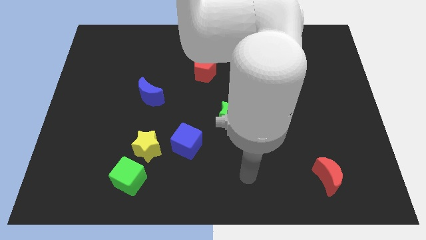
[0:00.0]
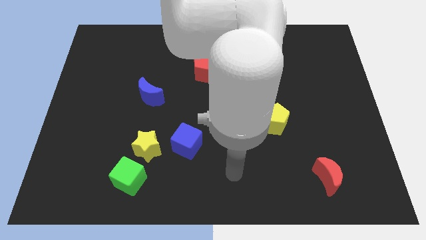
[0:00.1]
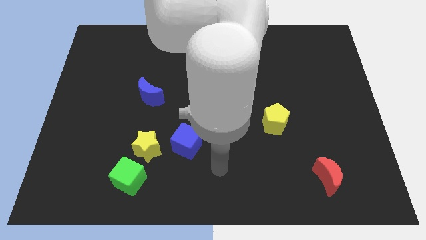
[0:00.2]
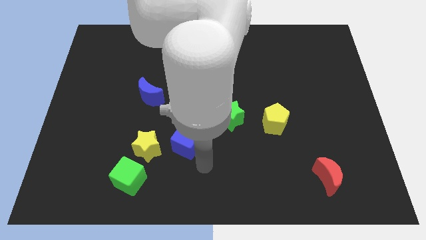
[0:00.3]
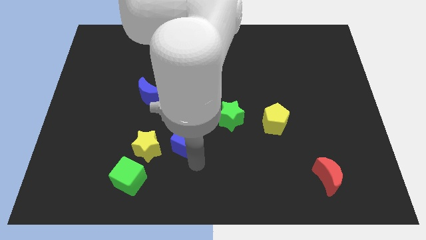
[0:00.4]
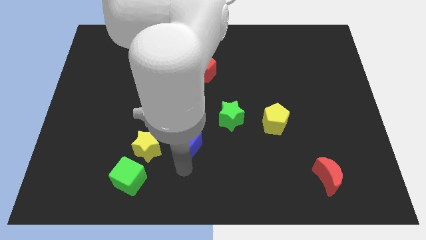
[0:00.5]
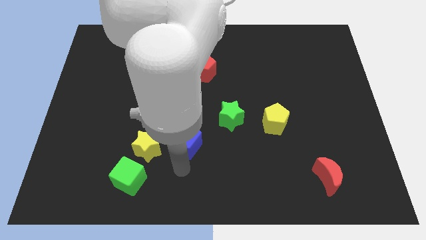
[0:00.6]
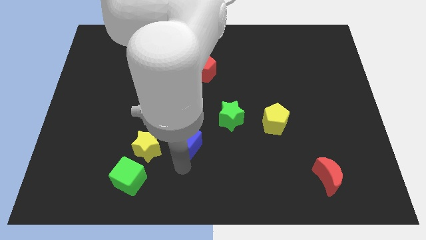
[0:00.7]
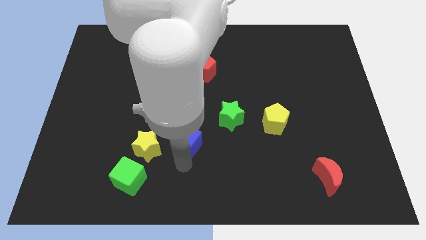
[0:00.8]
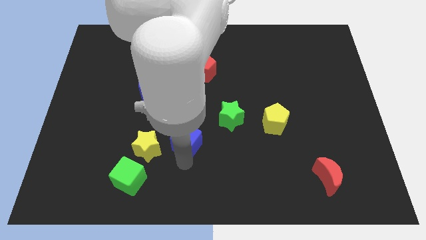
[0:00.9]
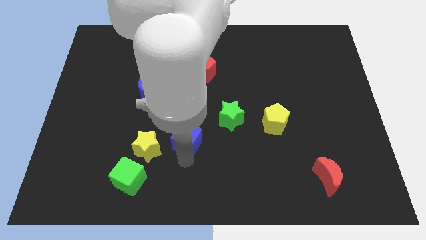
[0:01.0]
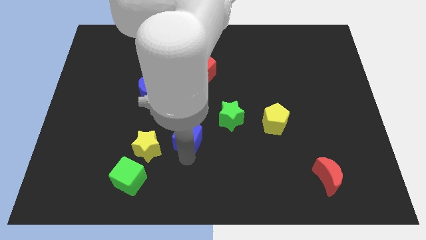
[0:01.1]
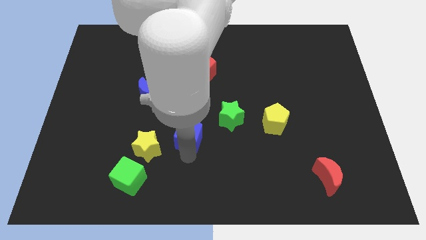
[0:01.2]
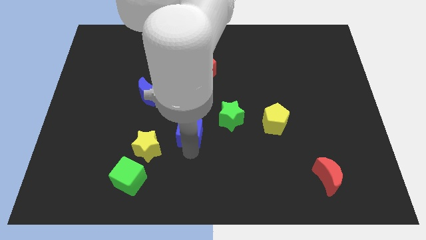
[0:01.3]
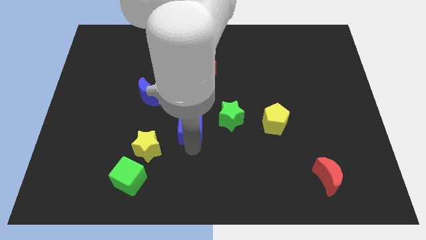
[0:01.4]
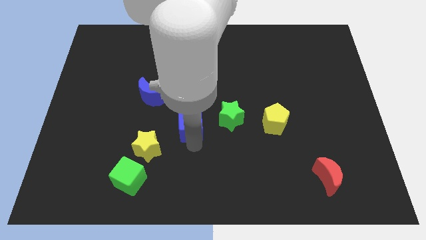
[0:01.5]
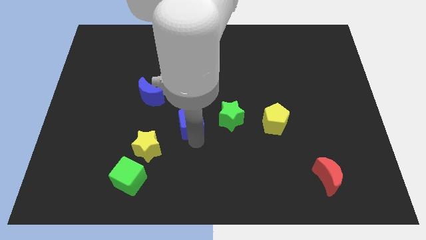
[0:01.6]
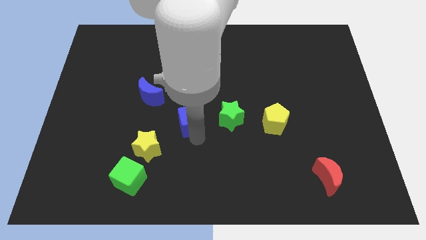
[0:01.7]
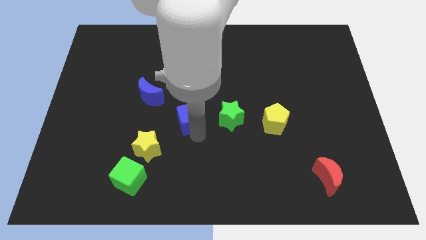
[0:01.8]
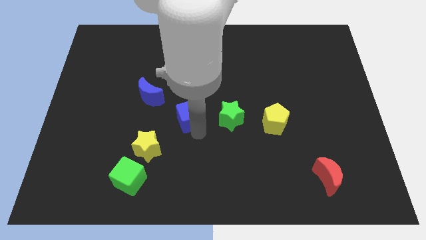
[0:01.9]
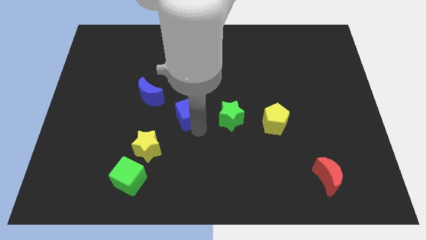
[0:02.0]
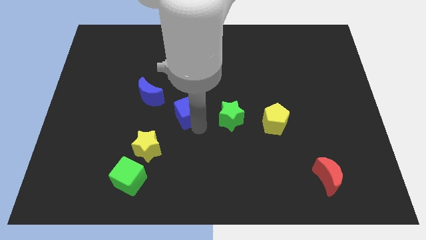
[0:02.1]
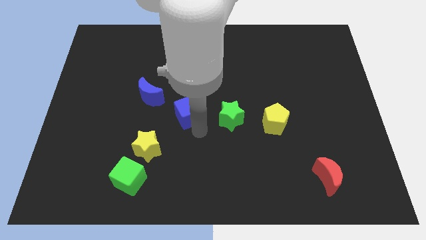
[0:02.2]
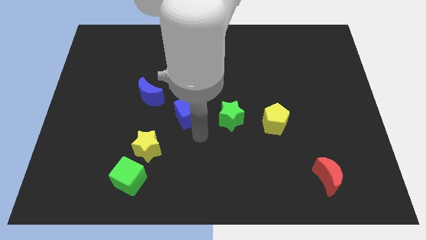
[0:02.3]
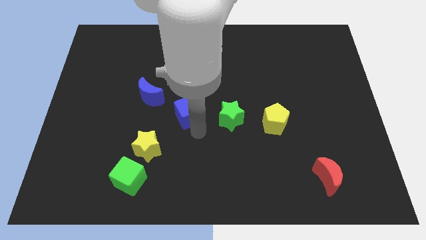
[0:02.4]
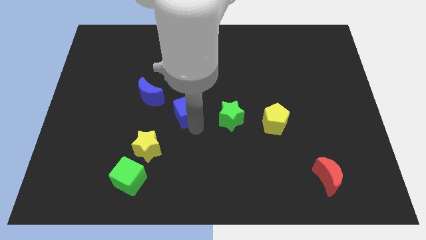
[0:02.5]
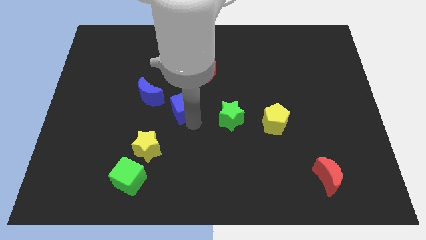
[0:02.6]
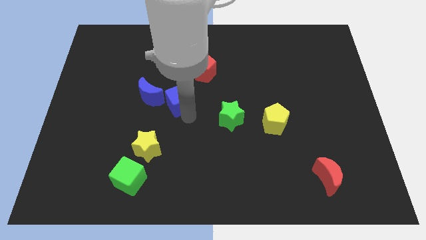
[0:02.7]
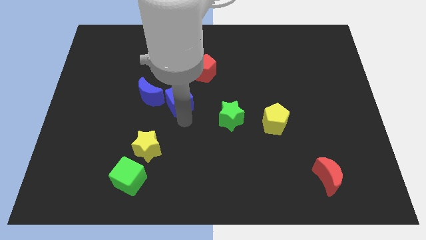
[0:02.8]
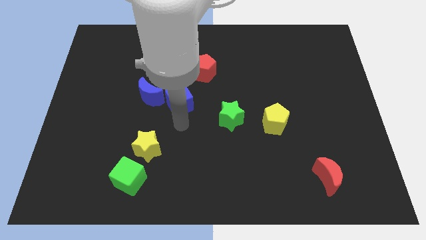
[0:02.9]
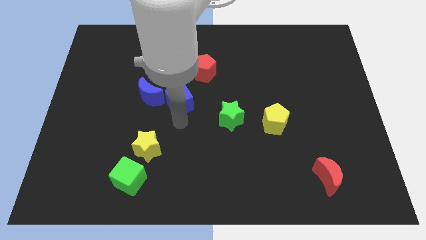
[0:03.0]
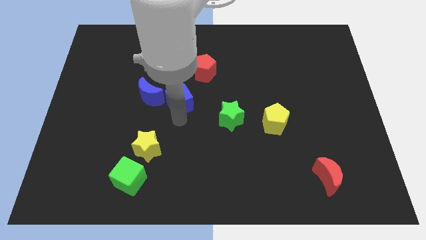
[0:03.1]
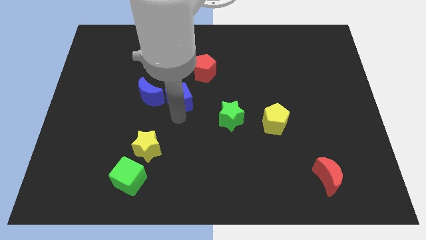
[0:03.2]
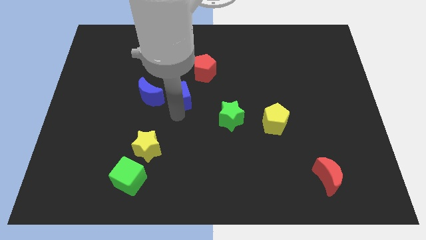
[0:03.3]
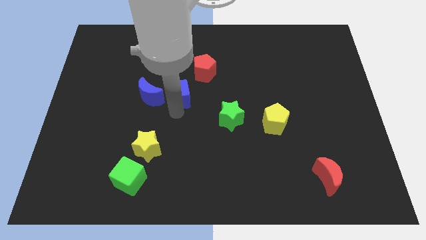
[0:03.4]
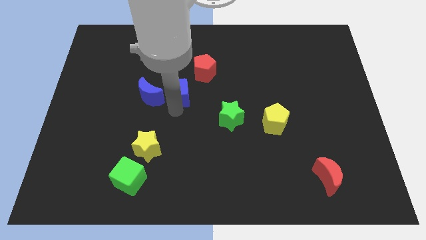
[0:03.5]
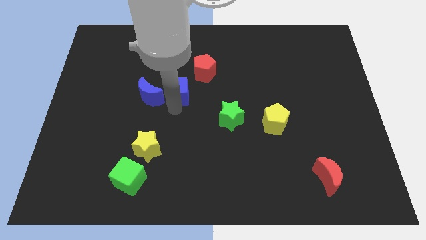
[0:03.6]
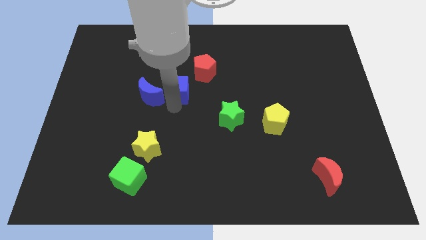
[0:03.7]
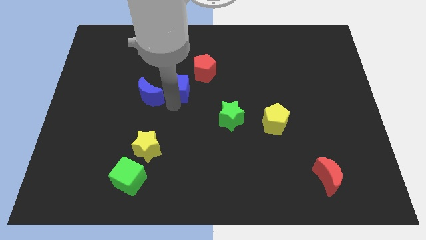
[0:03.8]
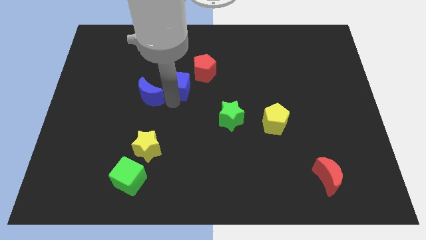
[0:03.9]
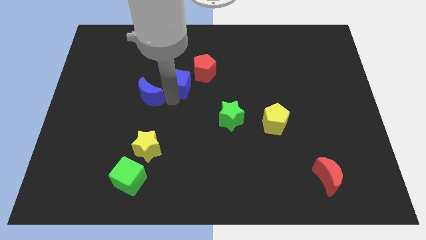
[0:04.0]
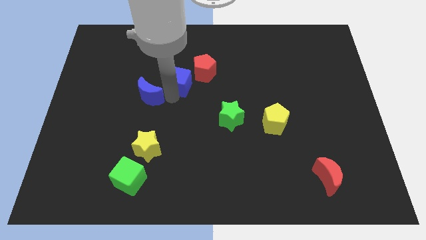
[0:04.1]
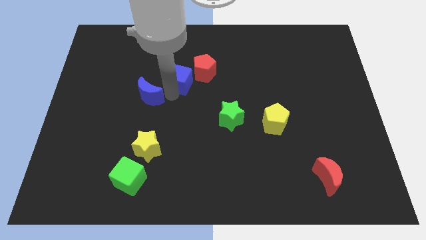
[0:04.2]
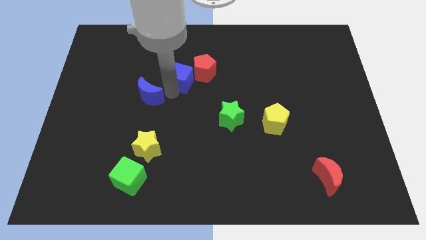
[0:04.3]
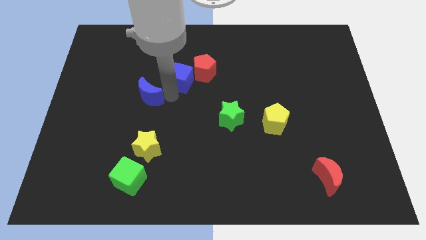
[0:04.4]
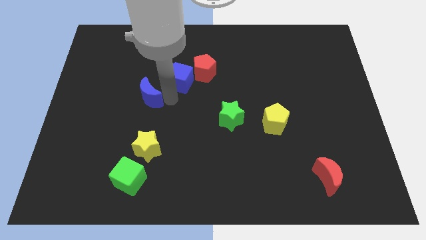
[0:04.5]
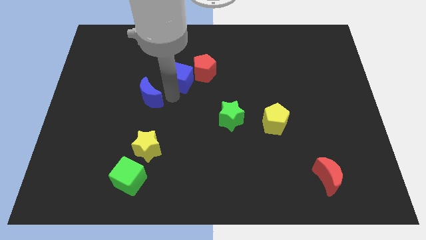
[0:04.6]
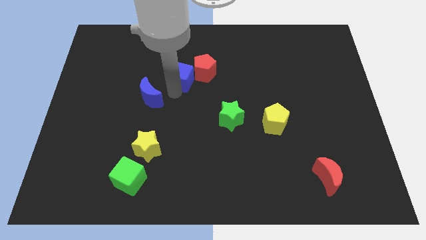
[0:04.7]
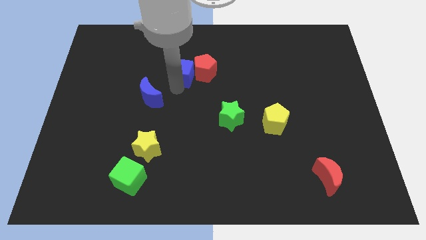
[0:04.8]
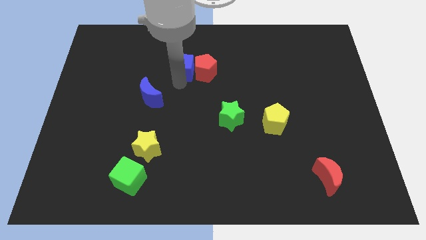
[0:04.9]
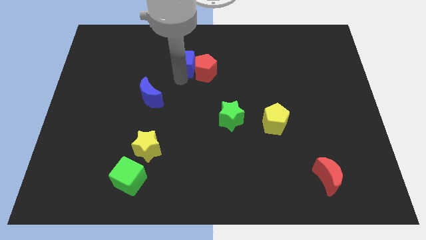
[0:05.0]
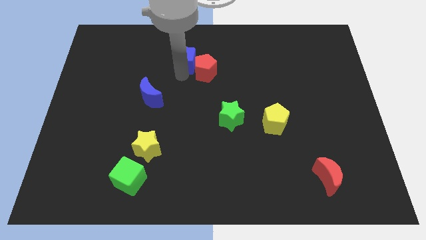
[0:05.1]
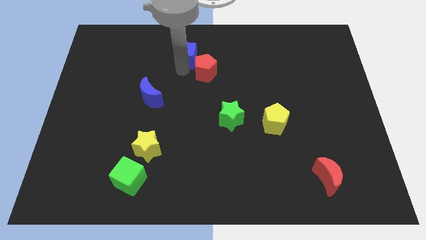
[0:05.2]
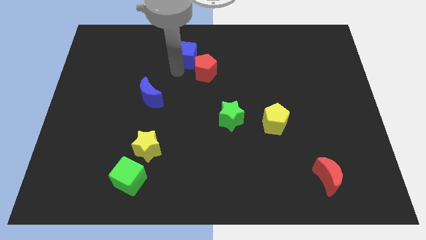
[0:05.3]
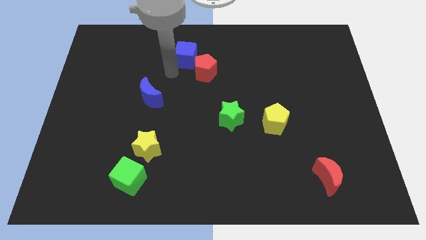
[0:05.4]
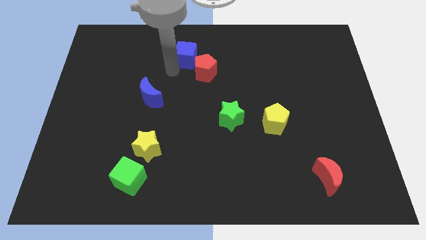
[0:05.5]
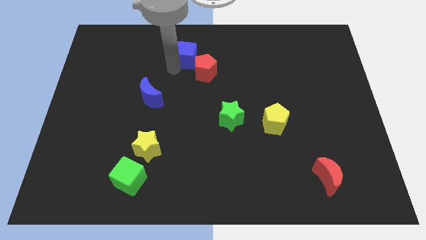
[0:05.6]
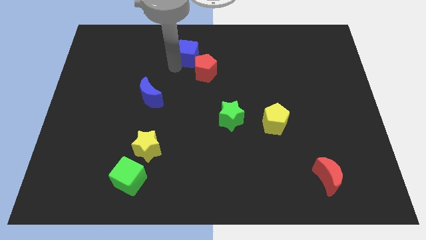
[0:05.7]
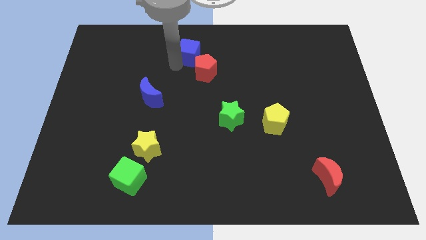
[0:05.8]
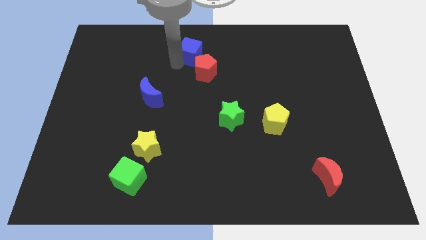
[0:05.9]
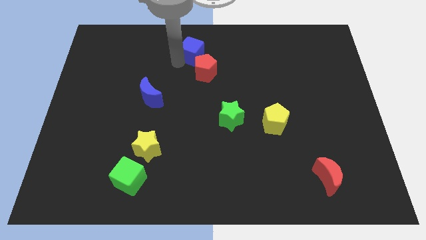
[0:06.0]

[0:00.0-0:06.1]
put the blue cube to the top
